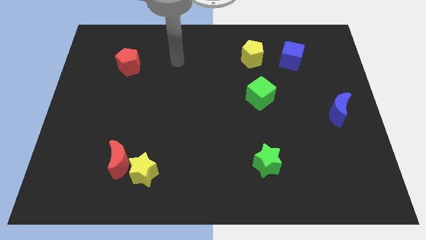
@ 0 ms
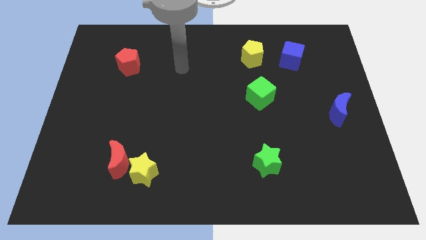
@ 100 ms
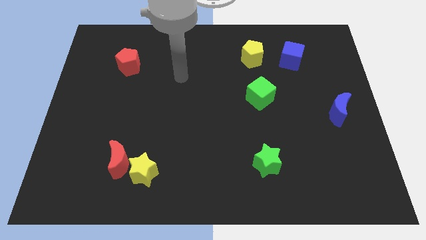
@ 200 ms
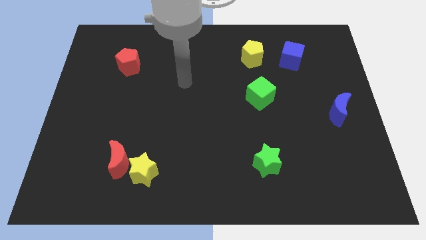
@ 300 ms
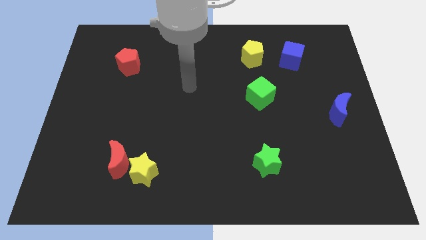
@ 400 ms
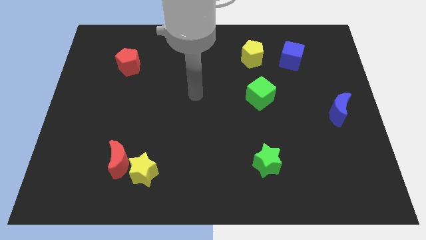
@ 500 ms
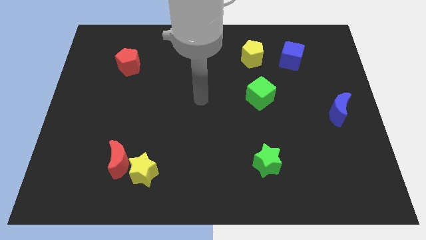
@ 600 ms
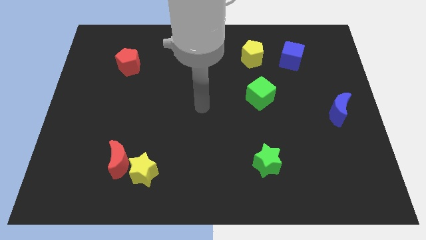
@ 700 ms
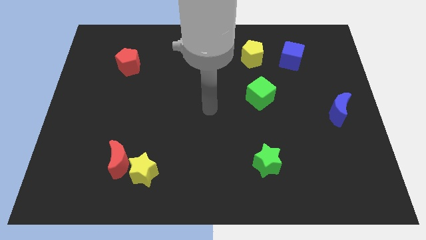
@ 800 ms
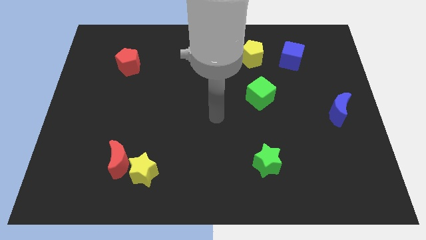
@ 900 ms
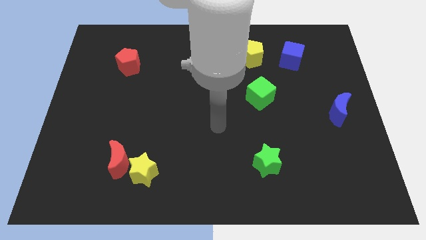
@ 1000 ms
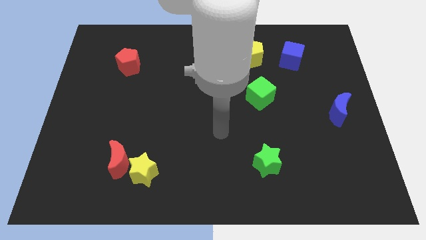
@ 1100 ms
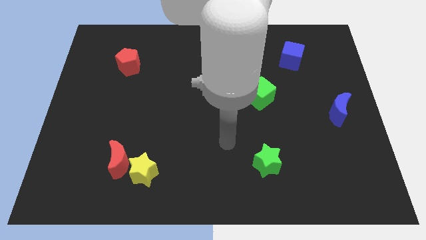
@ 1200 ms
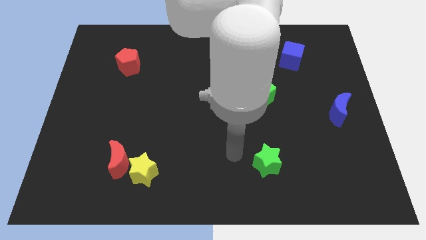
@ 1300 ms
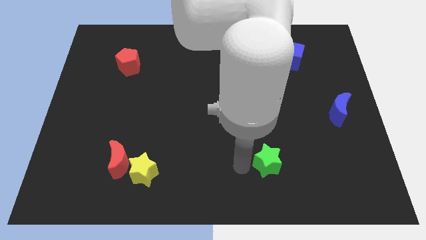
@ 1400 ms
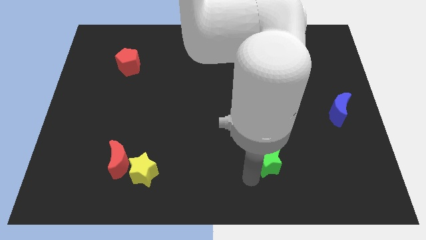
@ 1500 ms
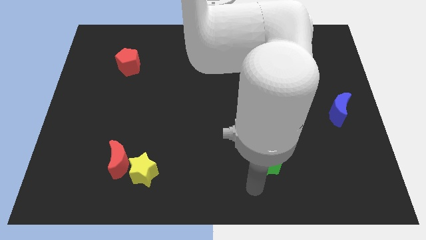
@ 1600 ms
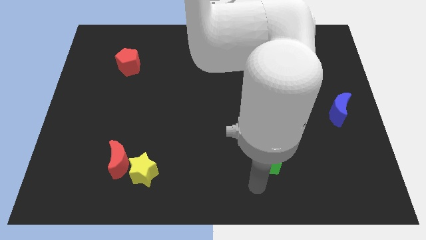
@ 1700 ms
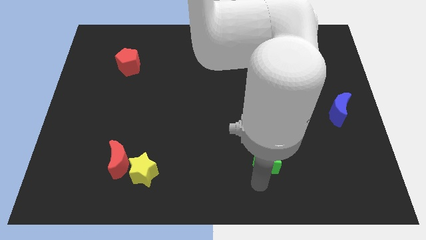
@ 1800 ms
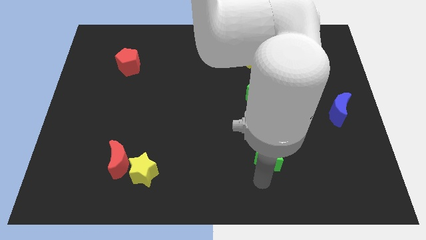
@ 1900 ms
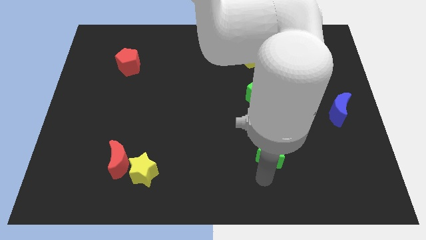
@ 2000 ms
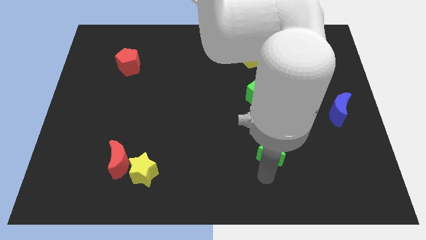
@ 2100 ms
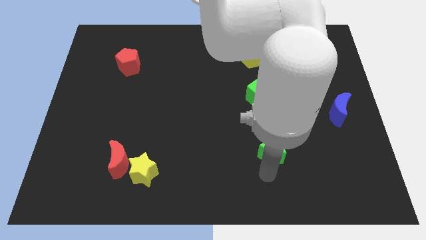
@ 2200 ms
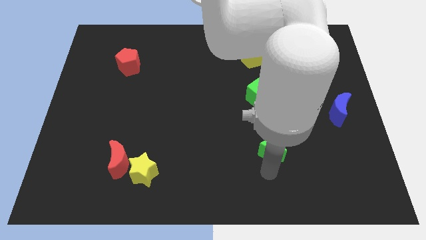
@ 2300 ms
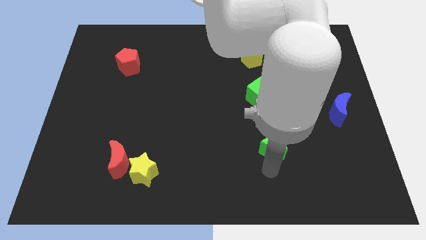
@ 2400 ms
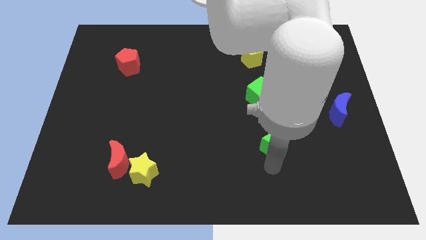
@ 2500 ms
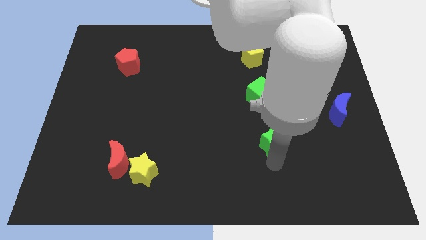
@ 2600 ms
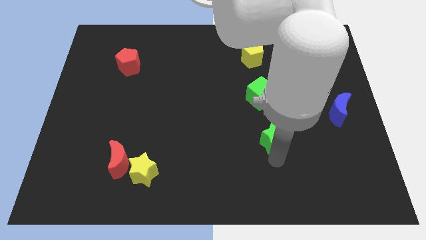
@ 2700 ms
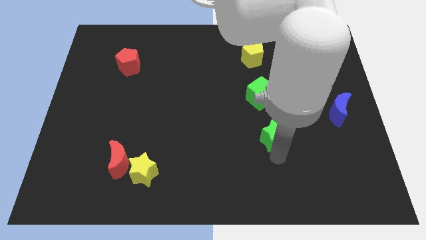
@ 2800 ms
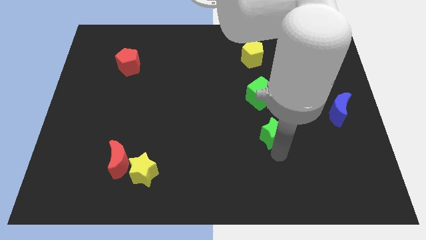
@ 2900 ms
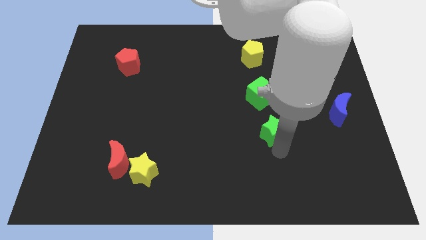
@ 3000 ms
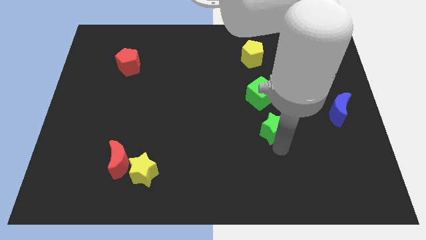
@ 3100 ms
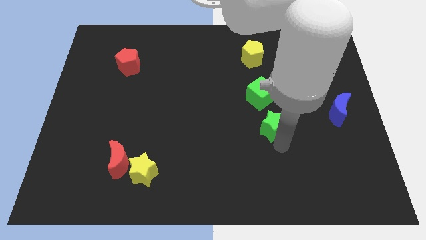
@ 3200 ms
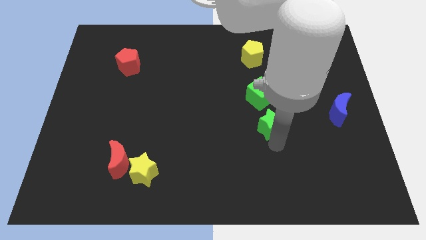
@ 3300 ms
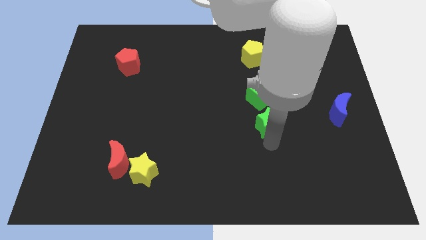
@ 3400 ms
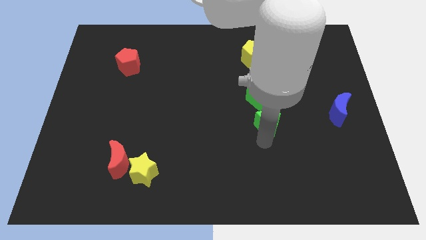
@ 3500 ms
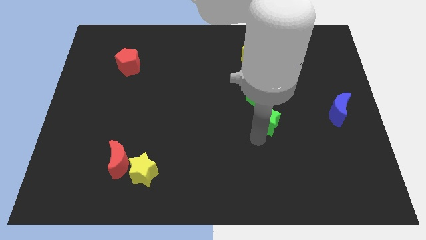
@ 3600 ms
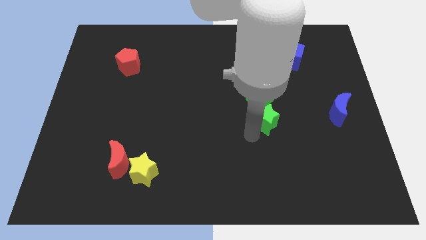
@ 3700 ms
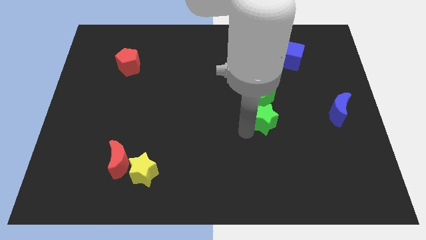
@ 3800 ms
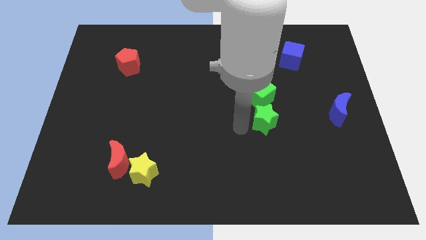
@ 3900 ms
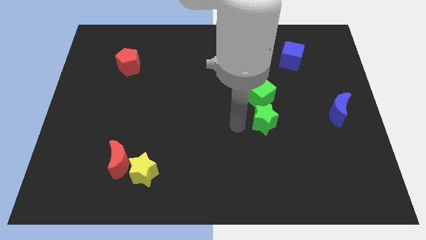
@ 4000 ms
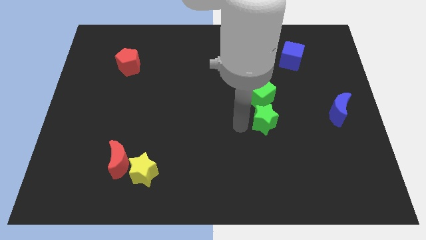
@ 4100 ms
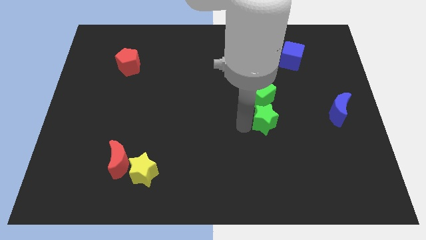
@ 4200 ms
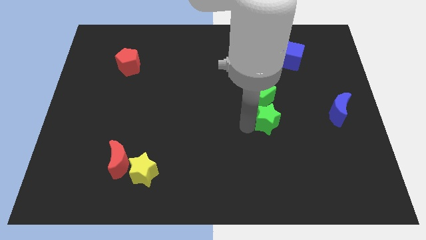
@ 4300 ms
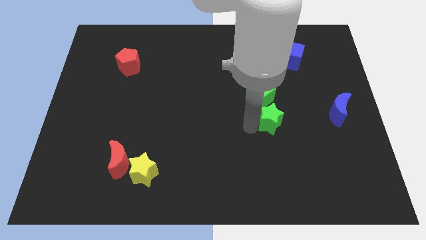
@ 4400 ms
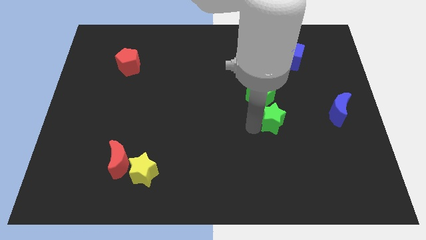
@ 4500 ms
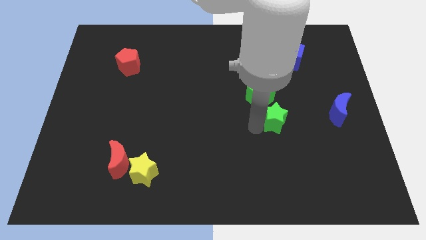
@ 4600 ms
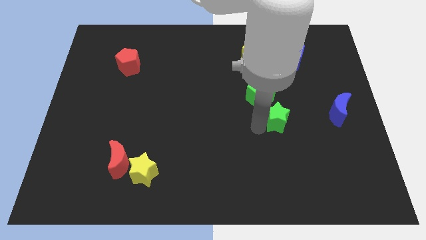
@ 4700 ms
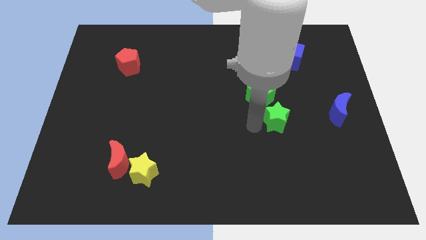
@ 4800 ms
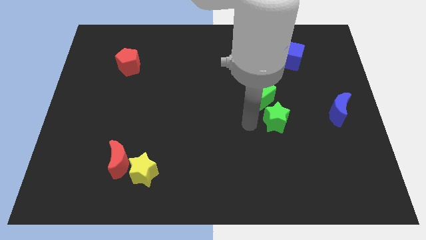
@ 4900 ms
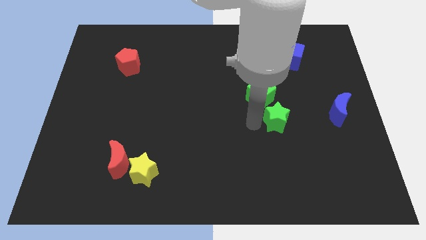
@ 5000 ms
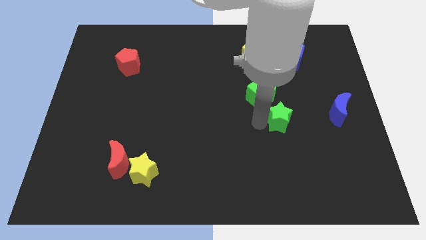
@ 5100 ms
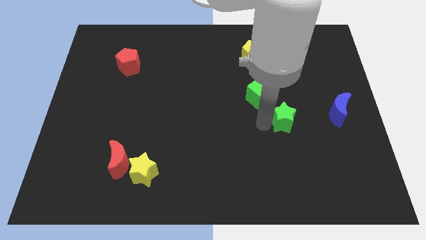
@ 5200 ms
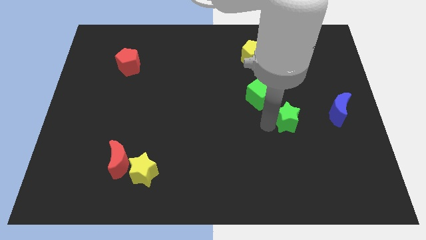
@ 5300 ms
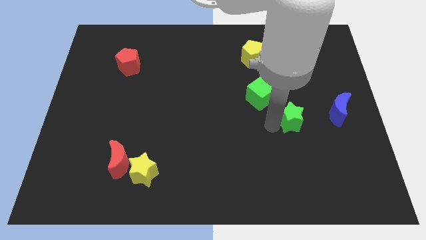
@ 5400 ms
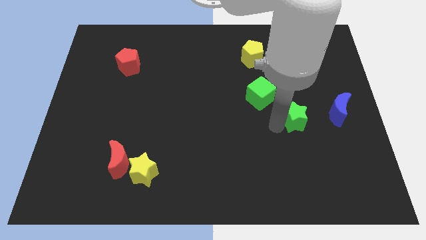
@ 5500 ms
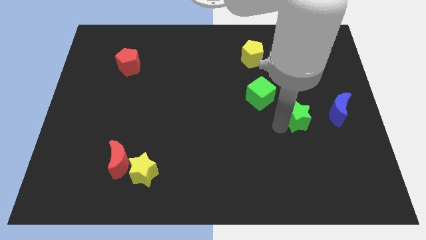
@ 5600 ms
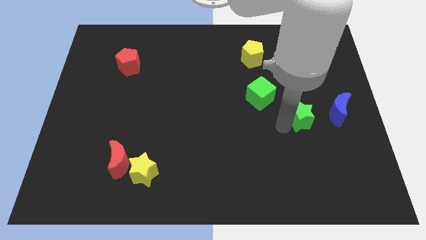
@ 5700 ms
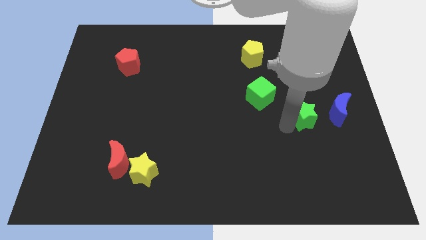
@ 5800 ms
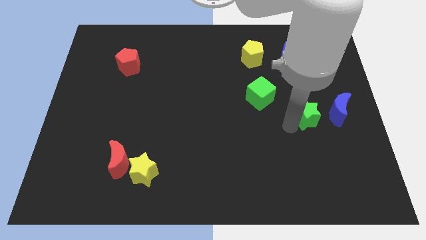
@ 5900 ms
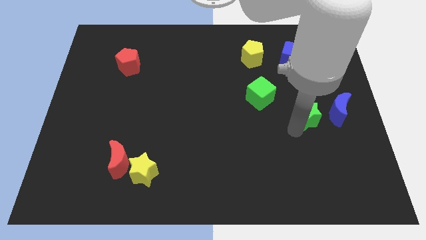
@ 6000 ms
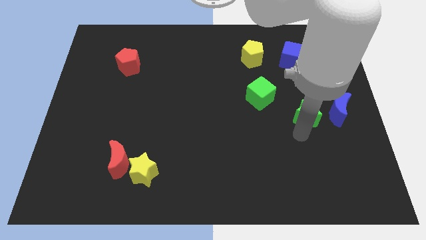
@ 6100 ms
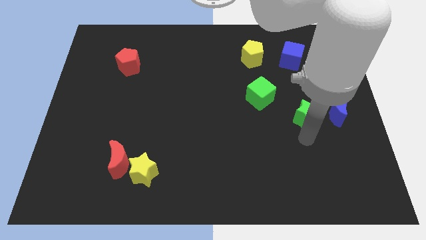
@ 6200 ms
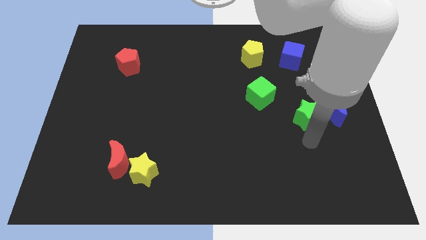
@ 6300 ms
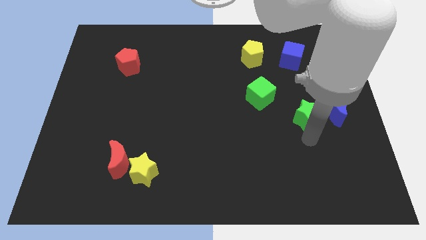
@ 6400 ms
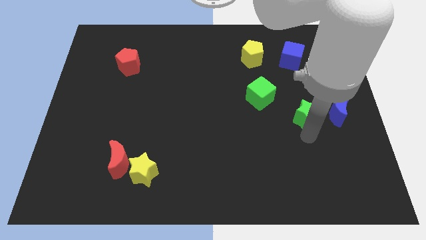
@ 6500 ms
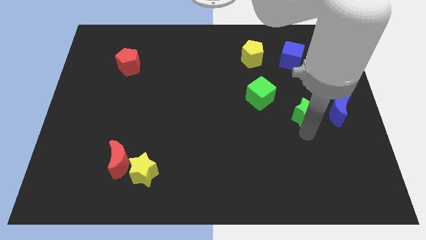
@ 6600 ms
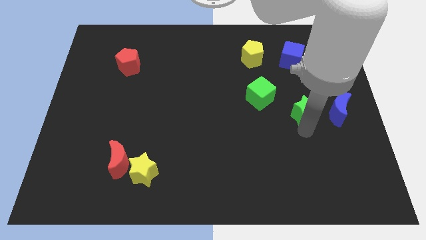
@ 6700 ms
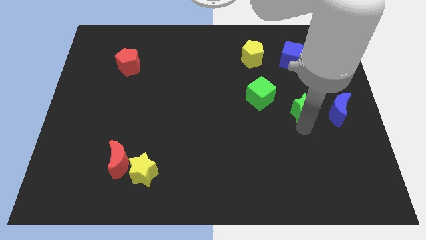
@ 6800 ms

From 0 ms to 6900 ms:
put the green star just right of the green cube
